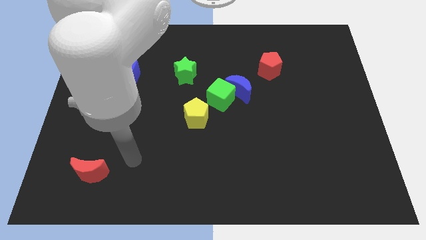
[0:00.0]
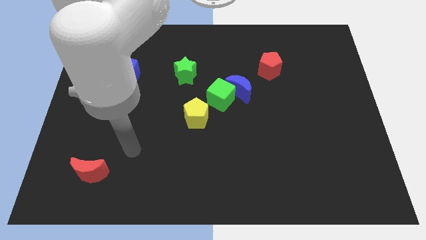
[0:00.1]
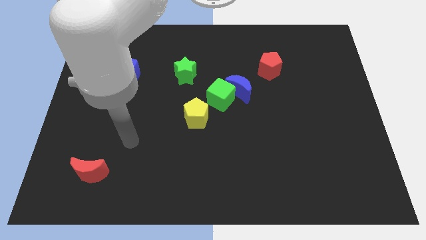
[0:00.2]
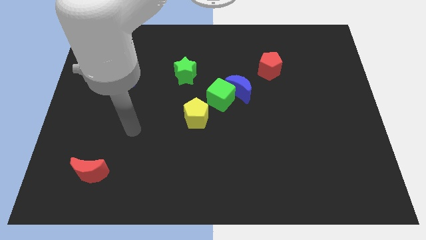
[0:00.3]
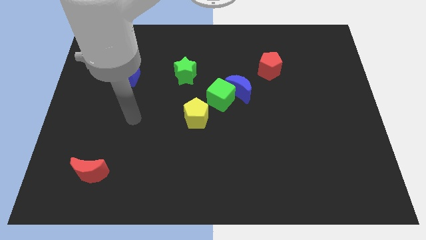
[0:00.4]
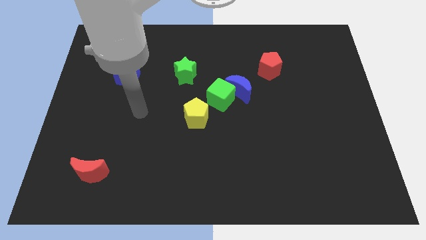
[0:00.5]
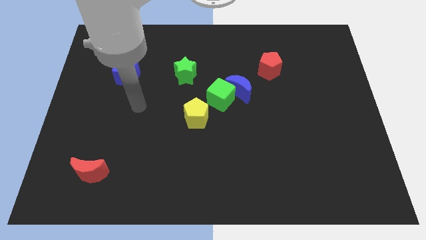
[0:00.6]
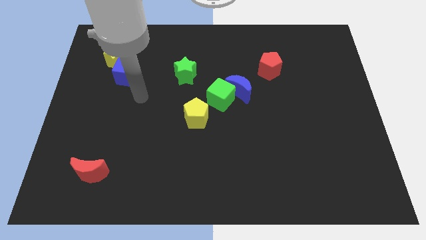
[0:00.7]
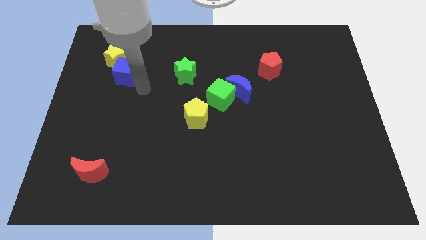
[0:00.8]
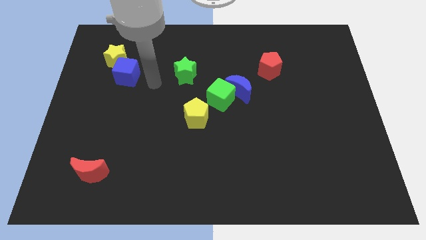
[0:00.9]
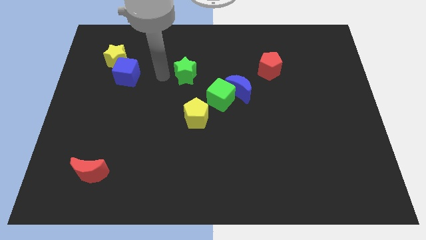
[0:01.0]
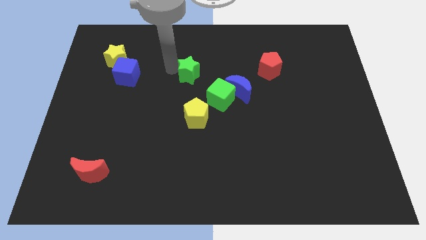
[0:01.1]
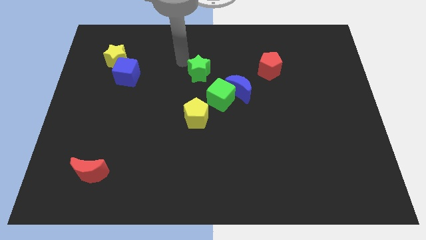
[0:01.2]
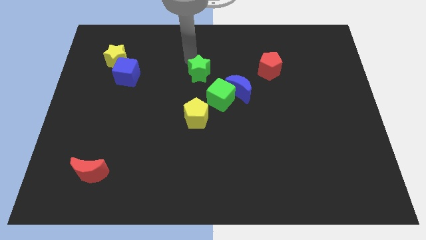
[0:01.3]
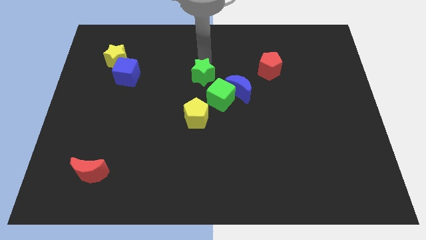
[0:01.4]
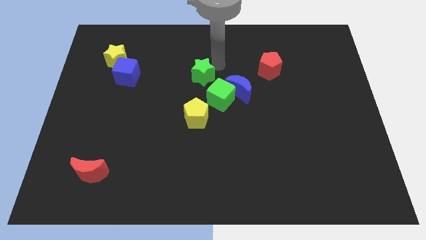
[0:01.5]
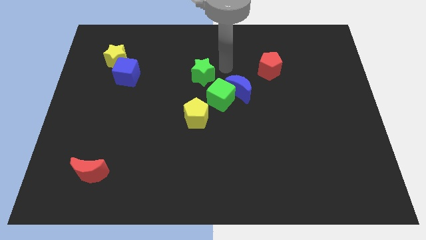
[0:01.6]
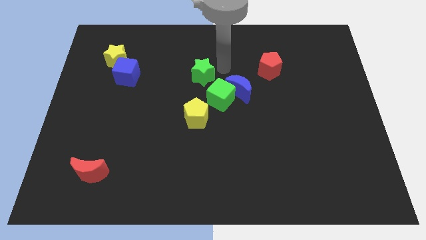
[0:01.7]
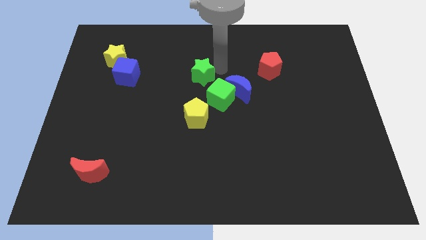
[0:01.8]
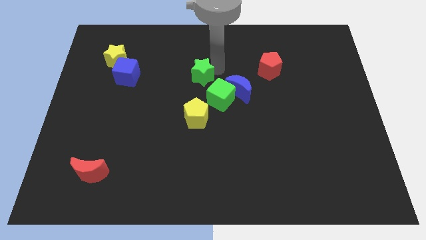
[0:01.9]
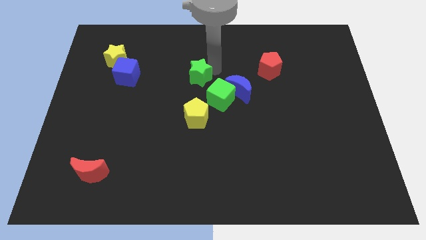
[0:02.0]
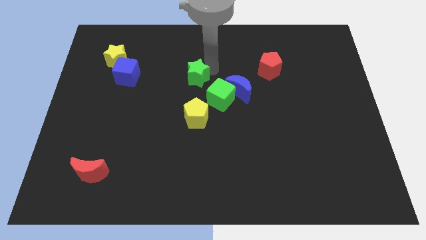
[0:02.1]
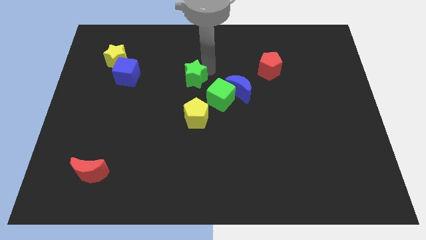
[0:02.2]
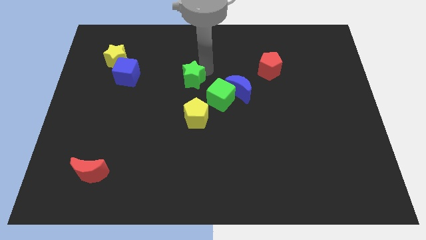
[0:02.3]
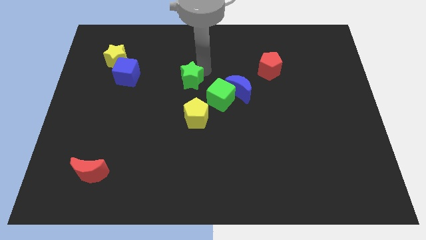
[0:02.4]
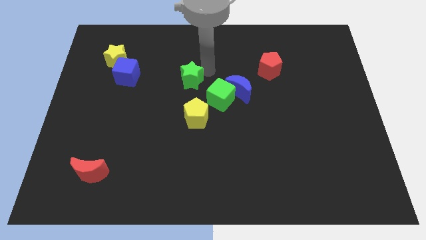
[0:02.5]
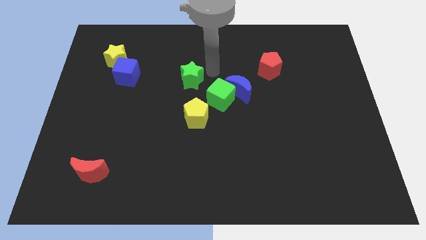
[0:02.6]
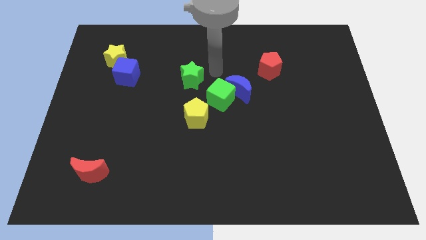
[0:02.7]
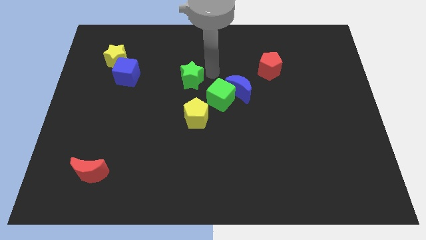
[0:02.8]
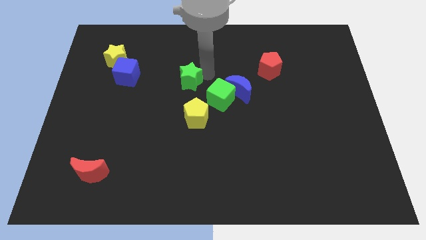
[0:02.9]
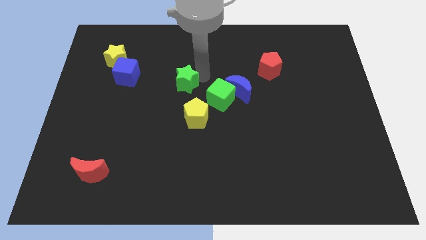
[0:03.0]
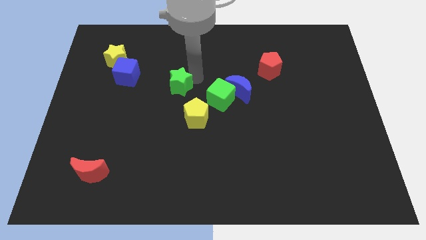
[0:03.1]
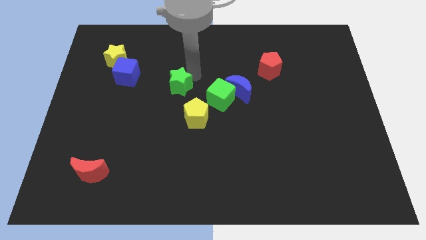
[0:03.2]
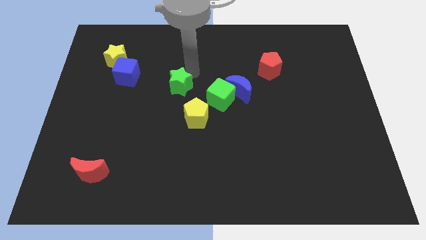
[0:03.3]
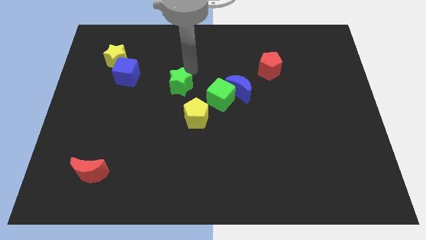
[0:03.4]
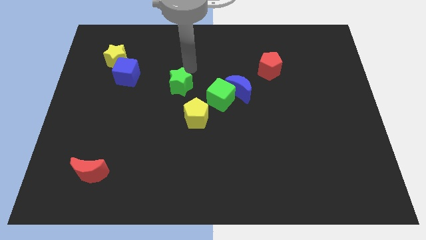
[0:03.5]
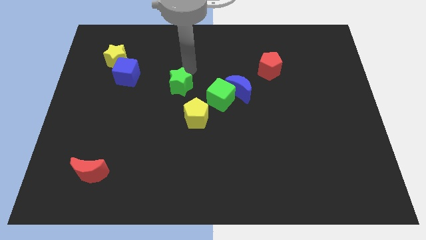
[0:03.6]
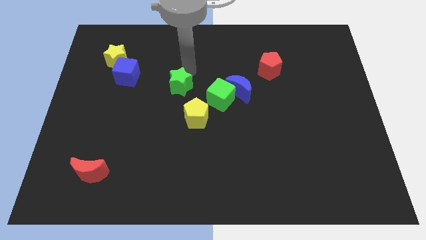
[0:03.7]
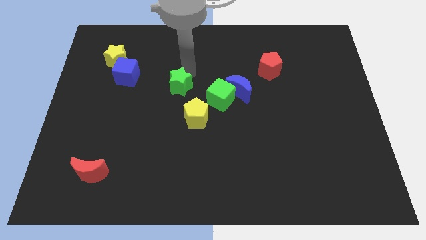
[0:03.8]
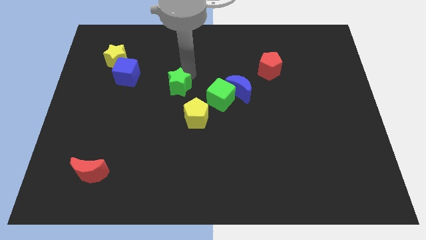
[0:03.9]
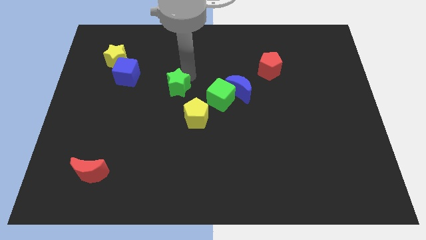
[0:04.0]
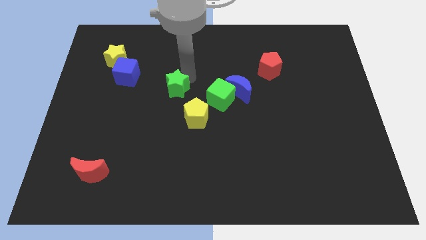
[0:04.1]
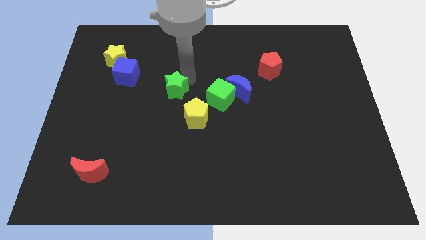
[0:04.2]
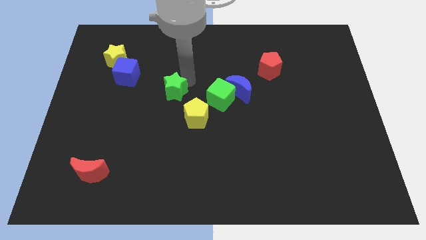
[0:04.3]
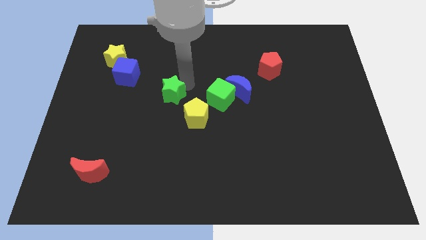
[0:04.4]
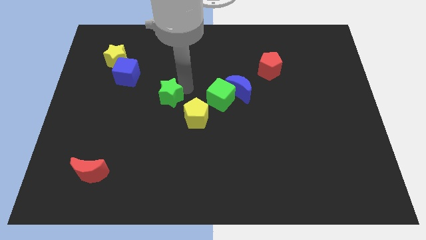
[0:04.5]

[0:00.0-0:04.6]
push the green star downwards a little

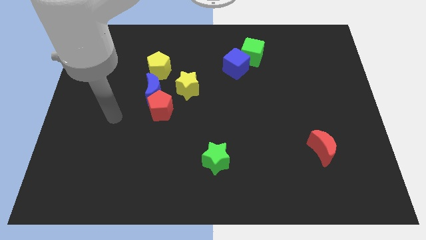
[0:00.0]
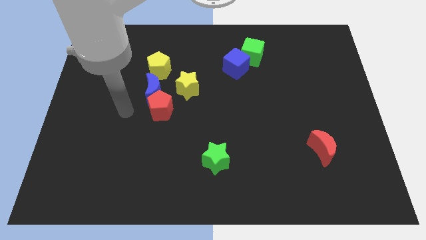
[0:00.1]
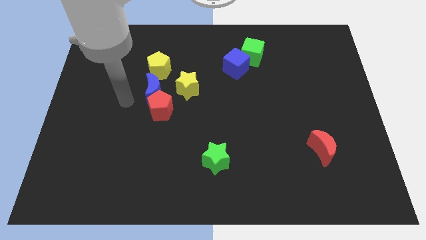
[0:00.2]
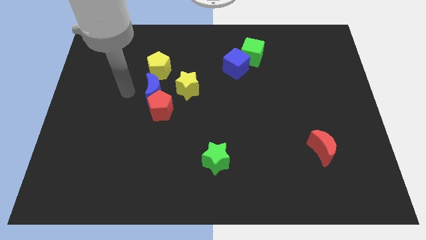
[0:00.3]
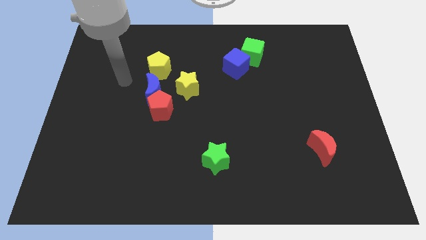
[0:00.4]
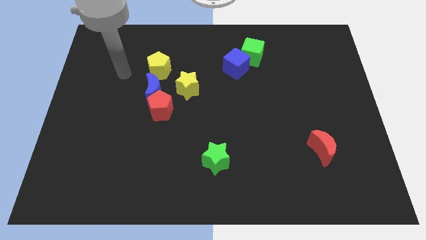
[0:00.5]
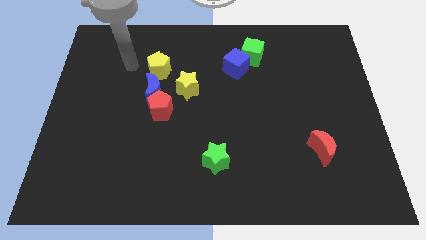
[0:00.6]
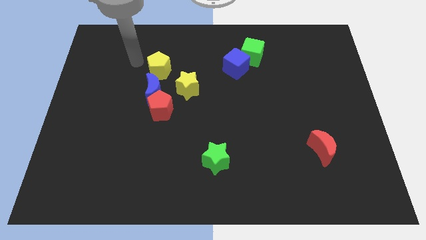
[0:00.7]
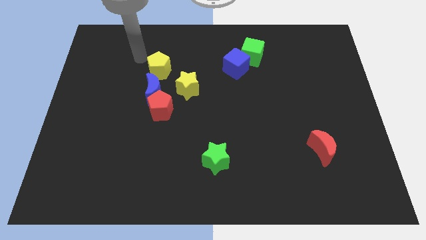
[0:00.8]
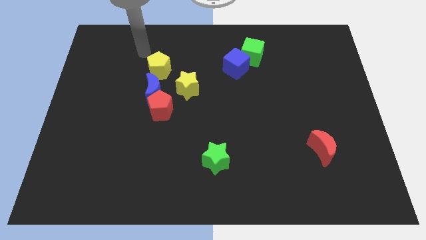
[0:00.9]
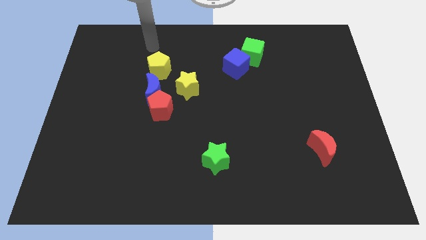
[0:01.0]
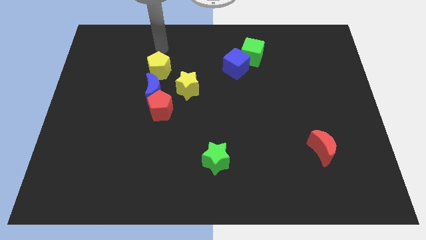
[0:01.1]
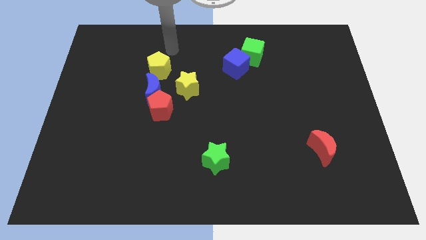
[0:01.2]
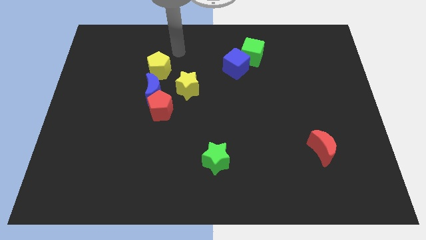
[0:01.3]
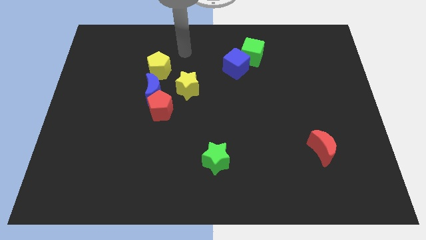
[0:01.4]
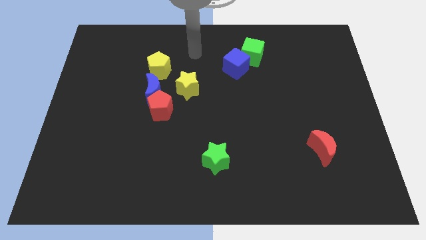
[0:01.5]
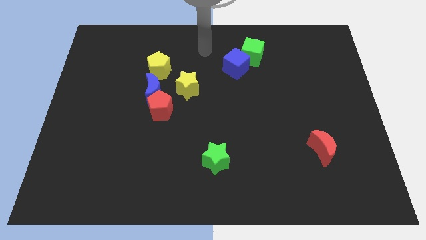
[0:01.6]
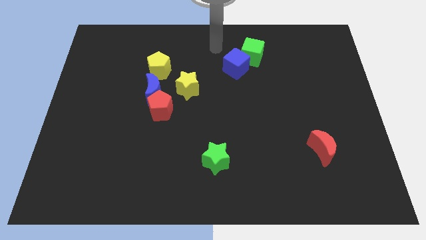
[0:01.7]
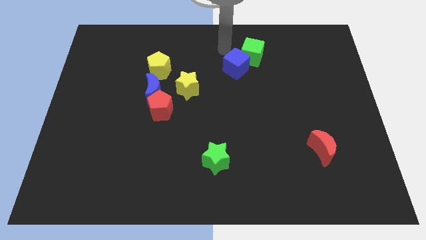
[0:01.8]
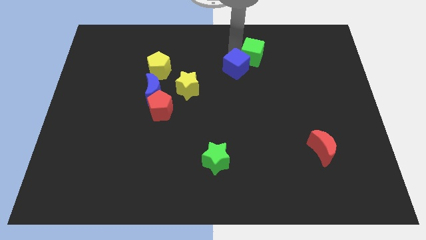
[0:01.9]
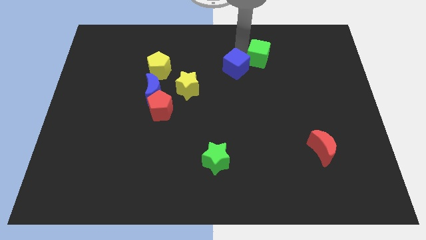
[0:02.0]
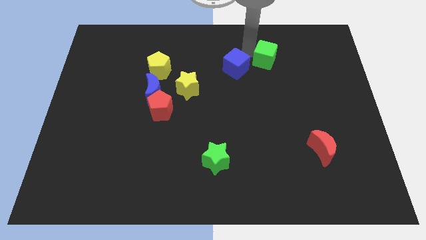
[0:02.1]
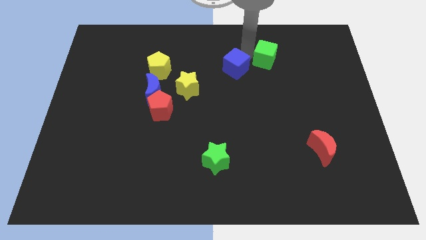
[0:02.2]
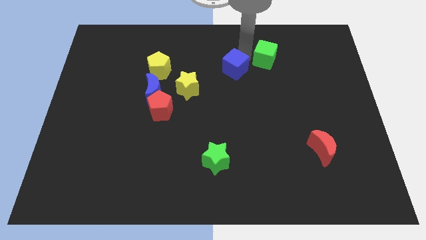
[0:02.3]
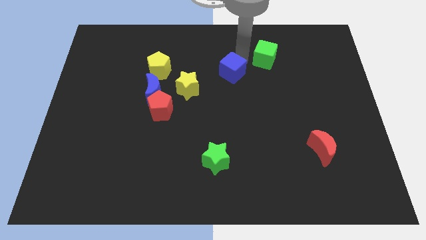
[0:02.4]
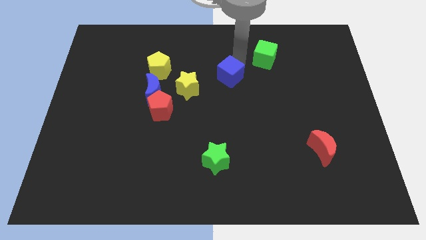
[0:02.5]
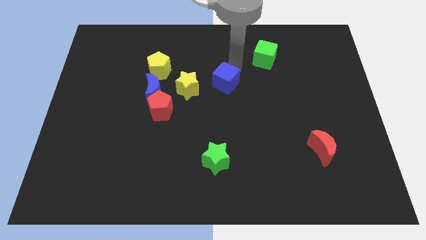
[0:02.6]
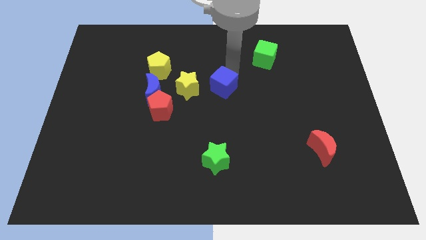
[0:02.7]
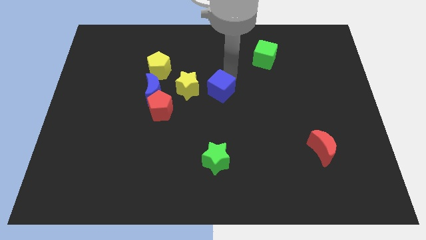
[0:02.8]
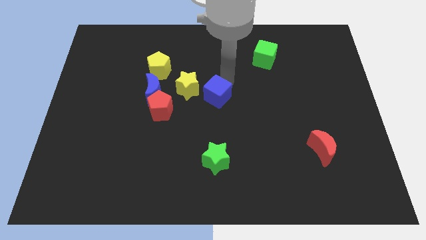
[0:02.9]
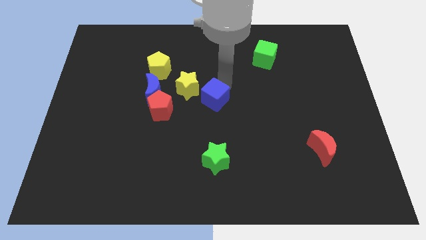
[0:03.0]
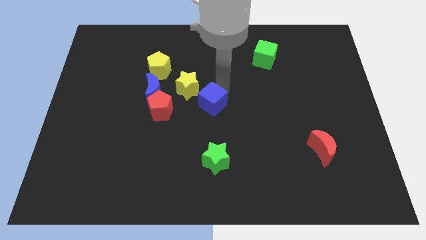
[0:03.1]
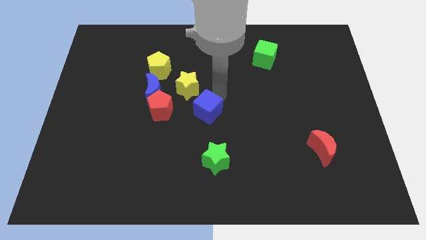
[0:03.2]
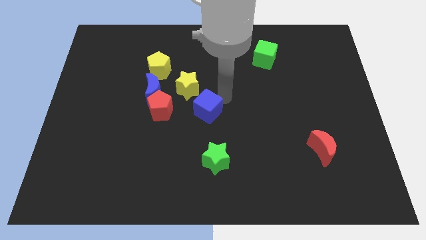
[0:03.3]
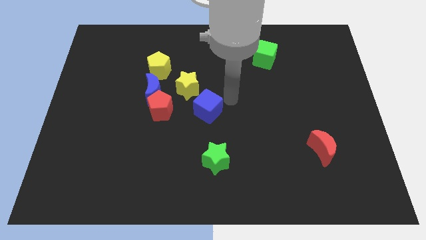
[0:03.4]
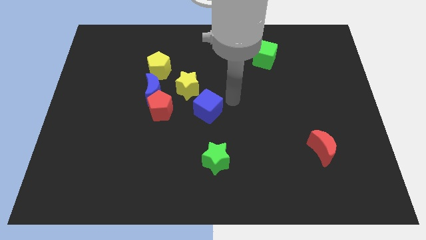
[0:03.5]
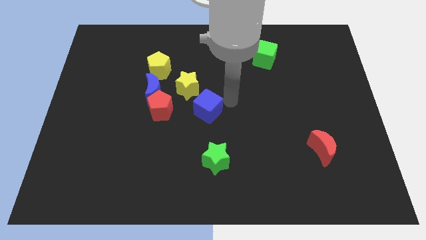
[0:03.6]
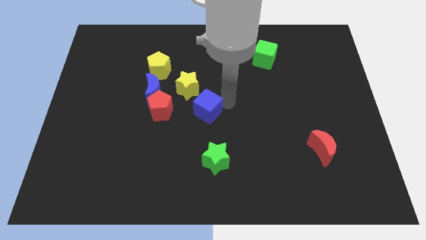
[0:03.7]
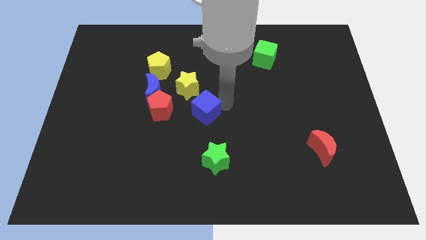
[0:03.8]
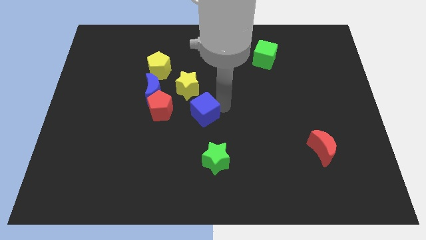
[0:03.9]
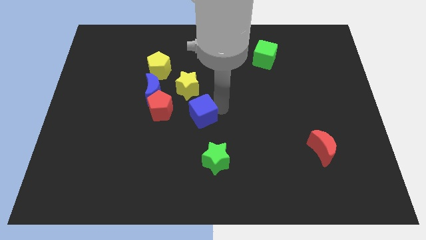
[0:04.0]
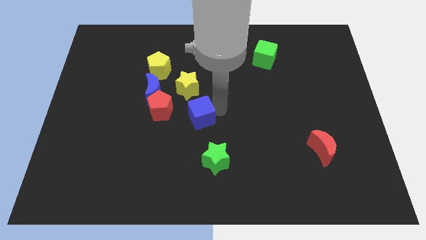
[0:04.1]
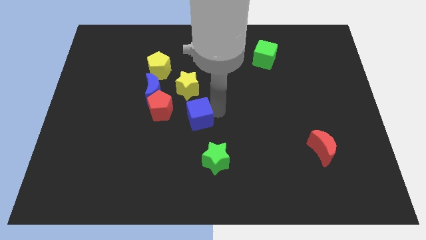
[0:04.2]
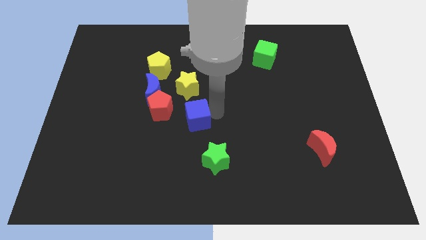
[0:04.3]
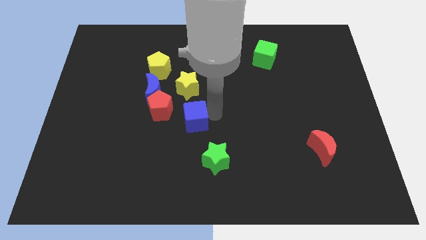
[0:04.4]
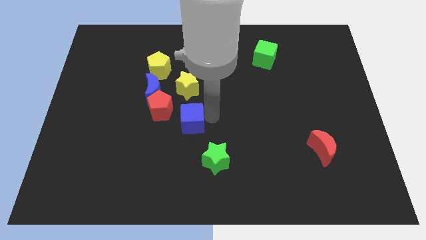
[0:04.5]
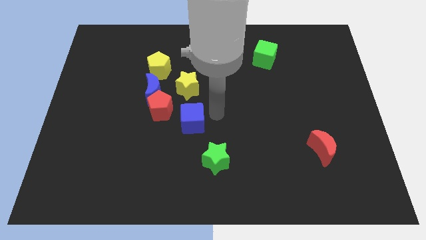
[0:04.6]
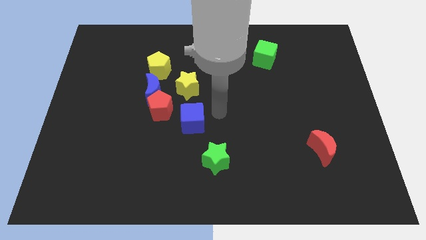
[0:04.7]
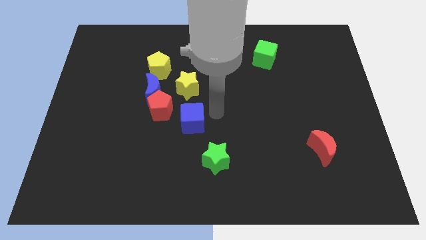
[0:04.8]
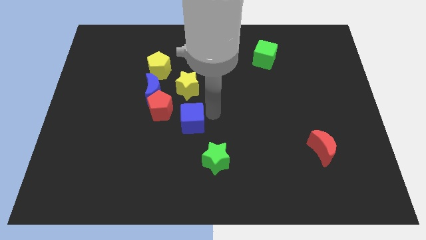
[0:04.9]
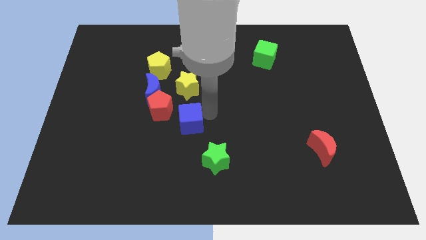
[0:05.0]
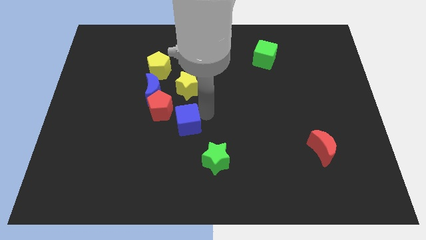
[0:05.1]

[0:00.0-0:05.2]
move the blue cube diagonally downwards and to the left
